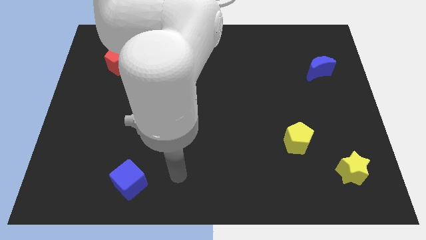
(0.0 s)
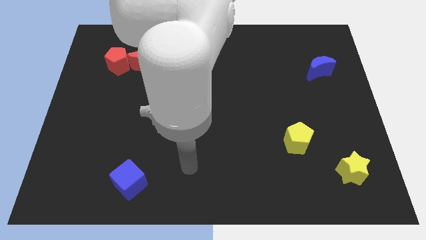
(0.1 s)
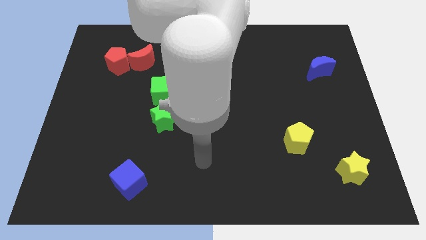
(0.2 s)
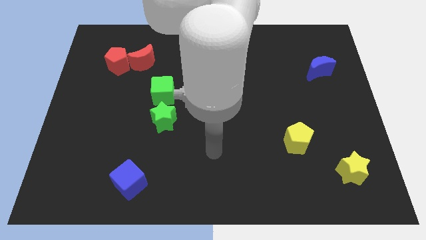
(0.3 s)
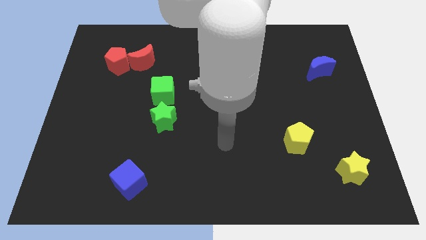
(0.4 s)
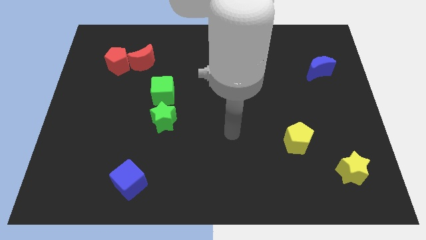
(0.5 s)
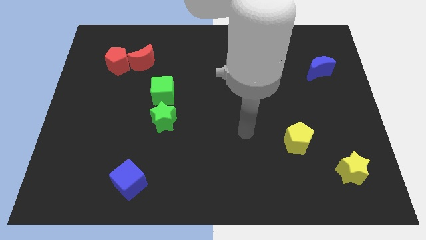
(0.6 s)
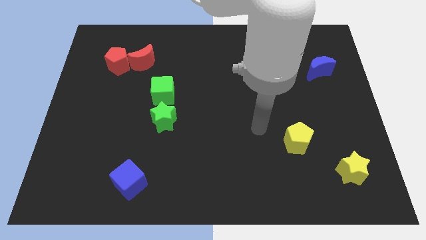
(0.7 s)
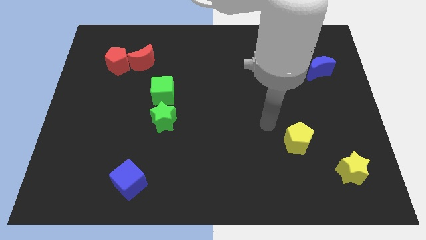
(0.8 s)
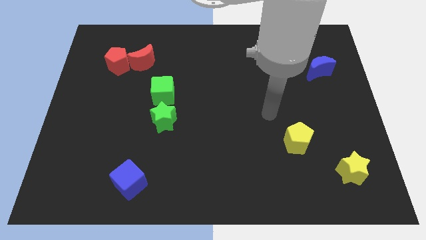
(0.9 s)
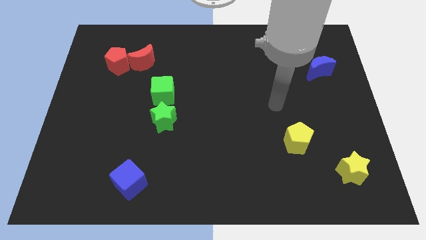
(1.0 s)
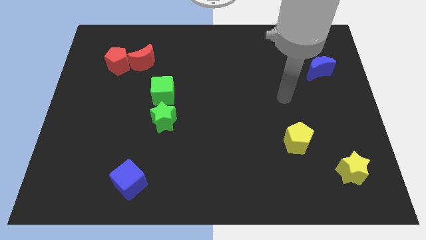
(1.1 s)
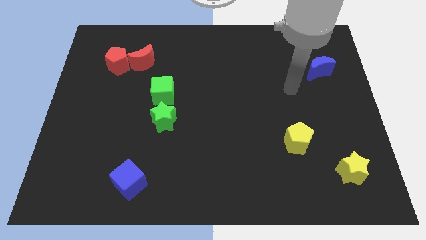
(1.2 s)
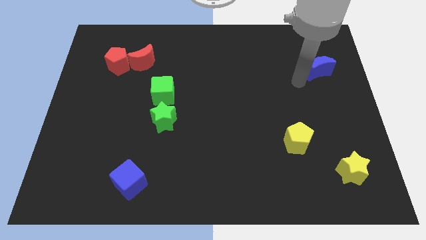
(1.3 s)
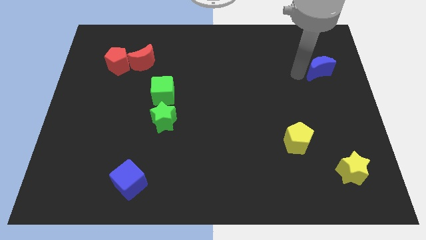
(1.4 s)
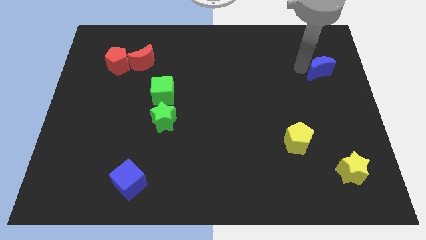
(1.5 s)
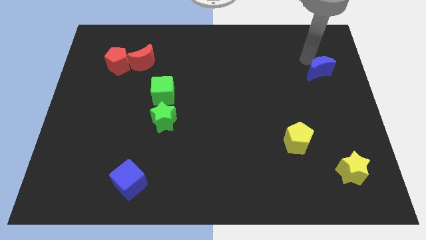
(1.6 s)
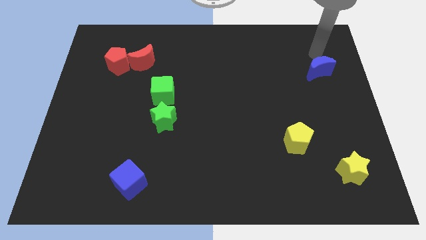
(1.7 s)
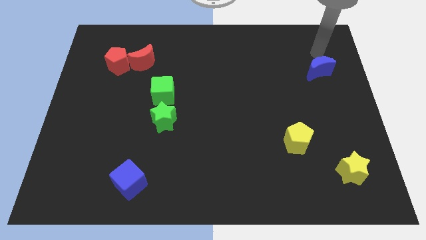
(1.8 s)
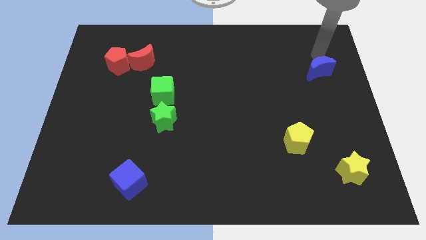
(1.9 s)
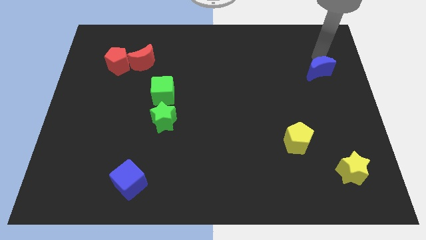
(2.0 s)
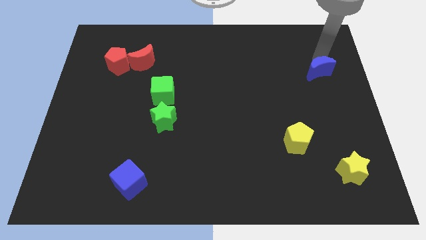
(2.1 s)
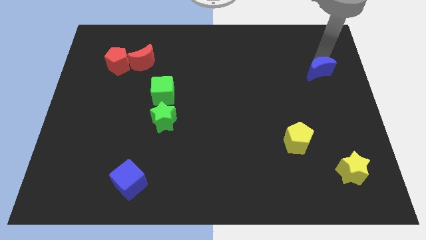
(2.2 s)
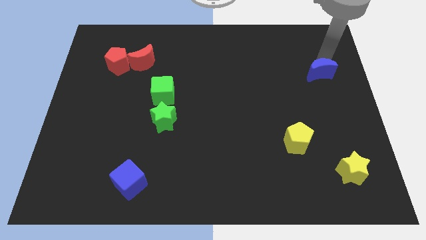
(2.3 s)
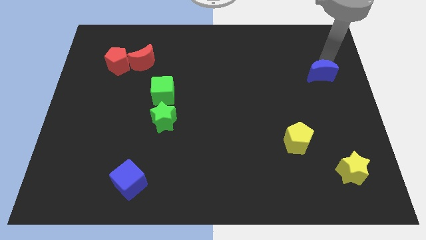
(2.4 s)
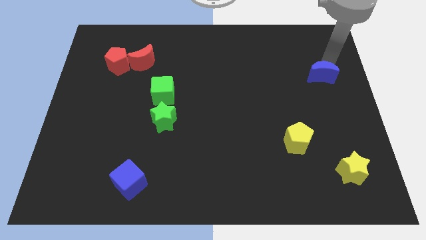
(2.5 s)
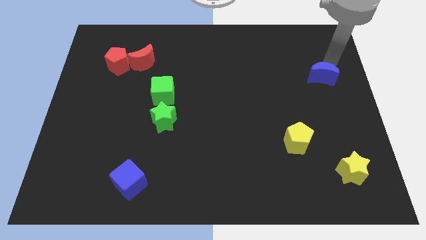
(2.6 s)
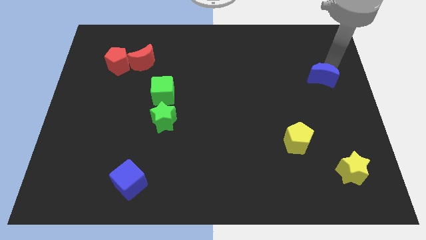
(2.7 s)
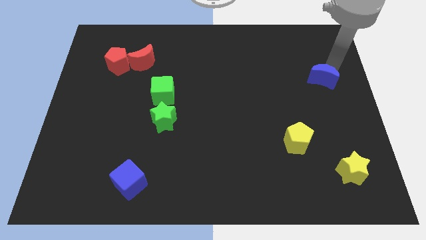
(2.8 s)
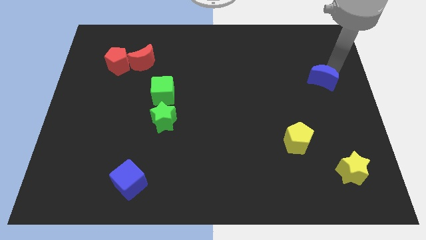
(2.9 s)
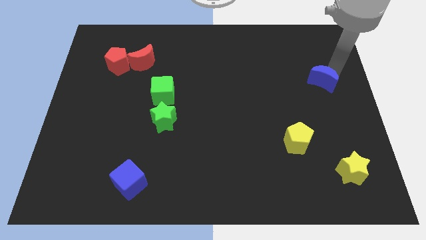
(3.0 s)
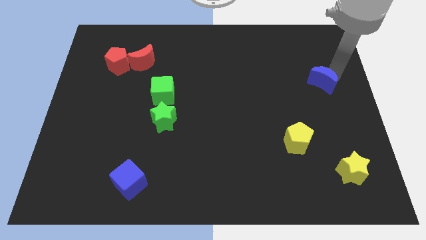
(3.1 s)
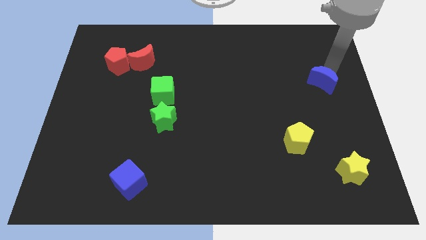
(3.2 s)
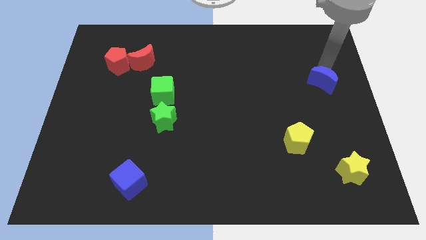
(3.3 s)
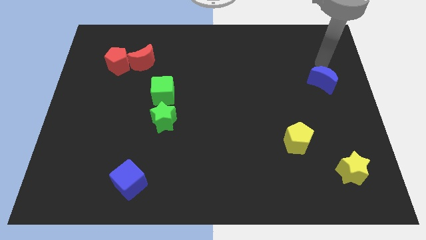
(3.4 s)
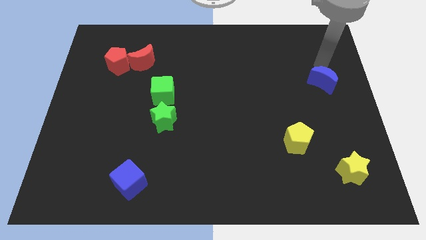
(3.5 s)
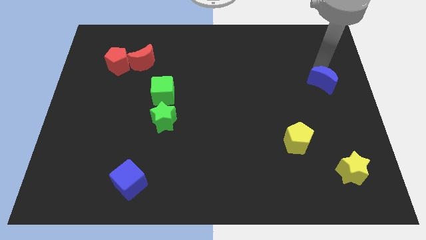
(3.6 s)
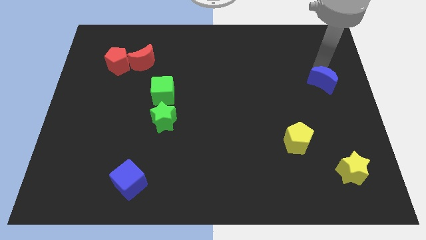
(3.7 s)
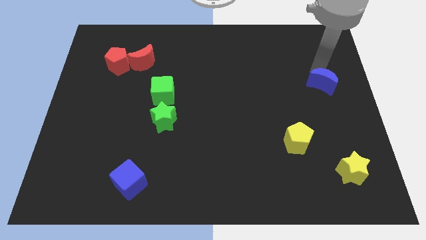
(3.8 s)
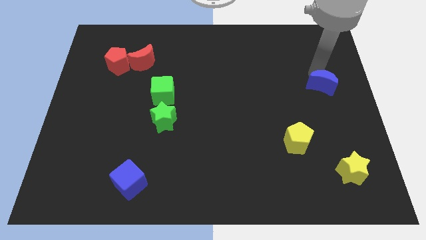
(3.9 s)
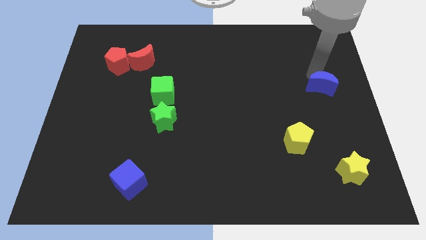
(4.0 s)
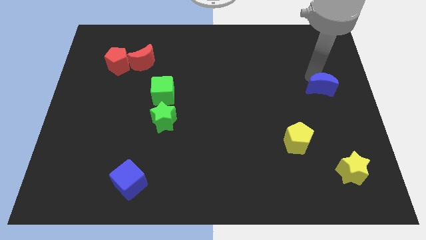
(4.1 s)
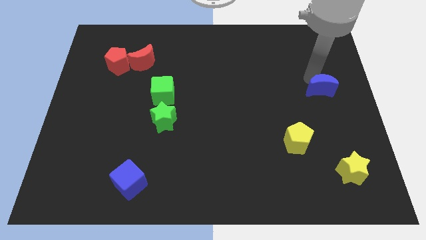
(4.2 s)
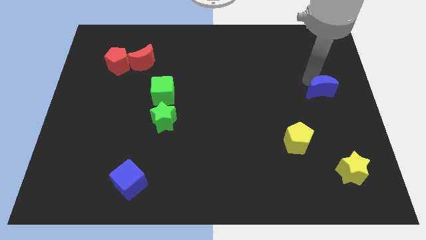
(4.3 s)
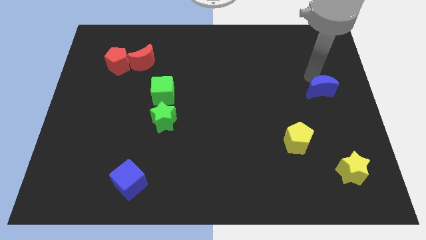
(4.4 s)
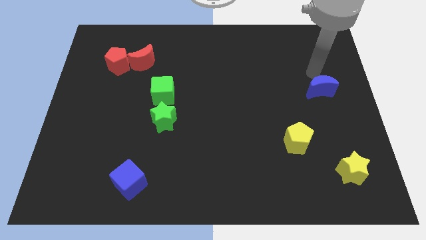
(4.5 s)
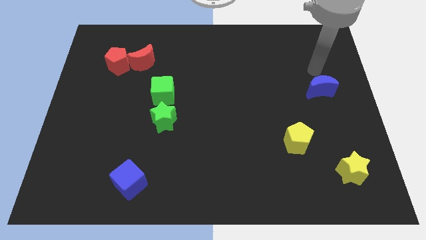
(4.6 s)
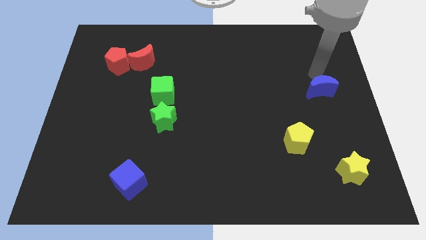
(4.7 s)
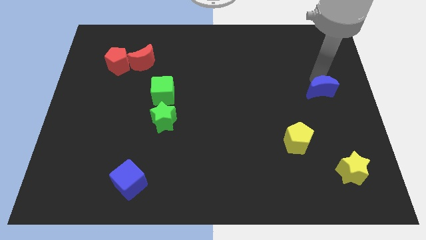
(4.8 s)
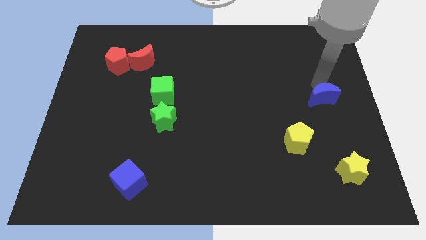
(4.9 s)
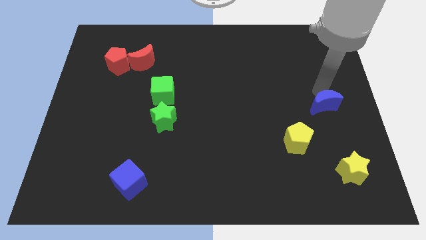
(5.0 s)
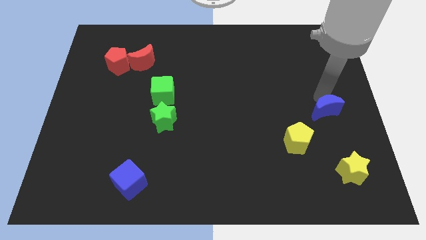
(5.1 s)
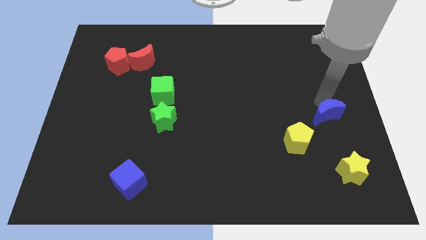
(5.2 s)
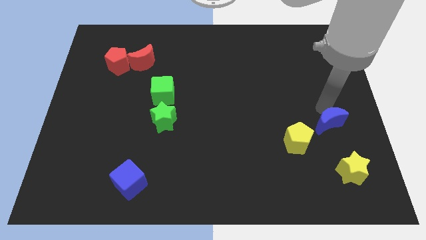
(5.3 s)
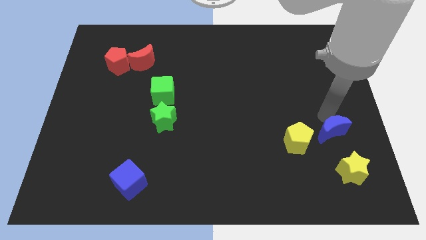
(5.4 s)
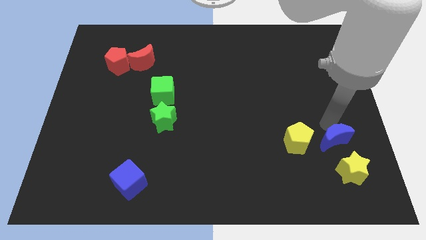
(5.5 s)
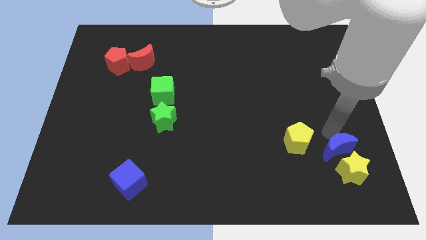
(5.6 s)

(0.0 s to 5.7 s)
slide the blue moon towards the yellow star

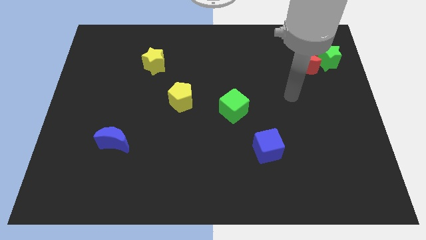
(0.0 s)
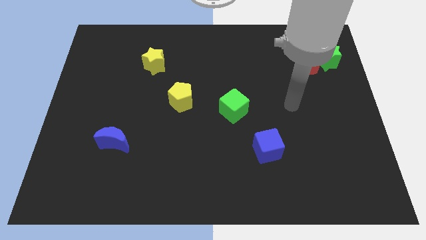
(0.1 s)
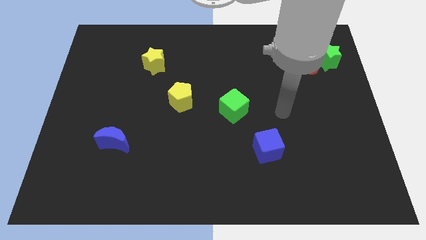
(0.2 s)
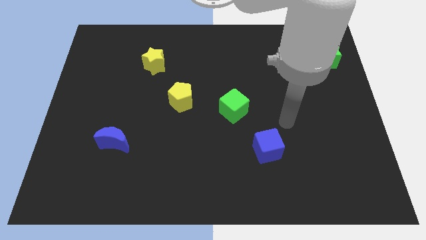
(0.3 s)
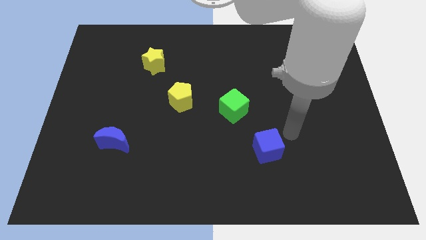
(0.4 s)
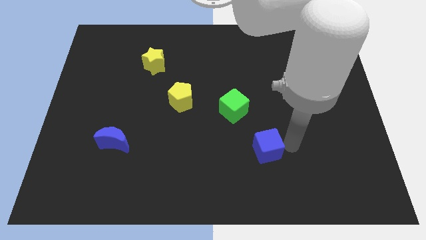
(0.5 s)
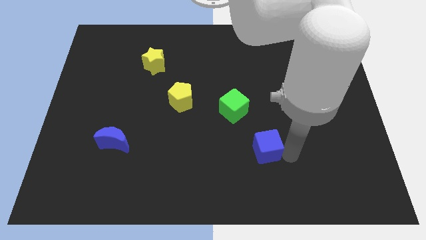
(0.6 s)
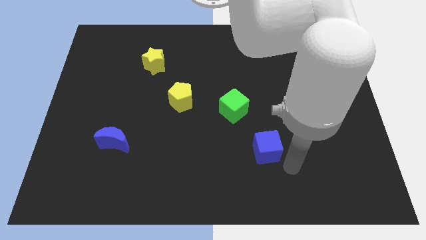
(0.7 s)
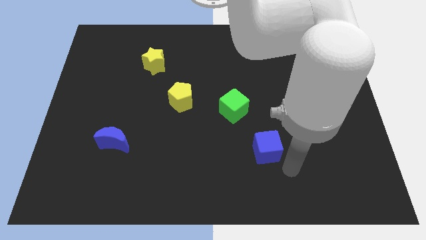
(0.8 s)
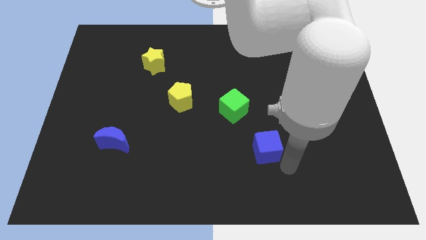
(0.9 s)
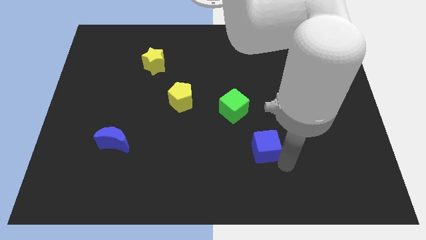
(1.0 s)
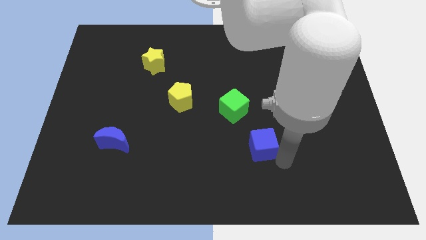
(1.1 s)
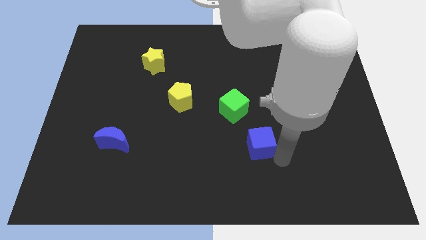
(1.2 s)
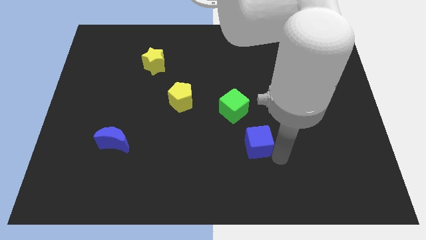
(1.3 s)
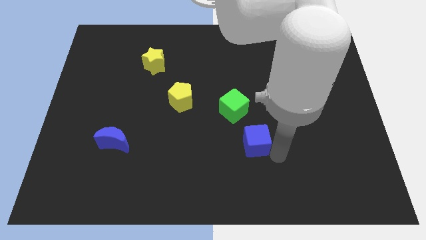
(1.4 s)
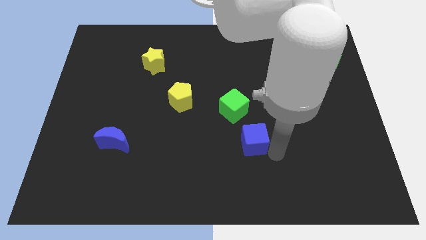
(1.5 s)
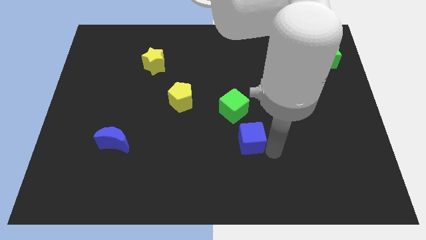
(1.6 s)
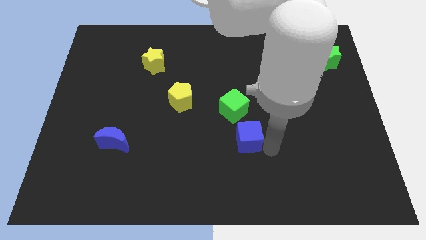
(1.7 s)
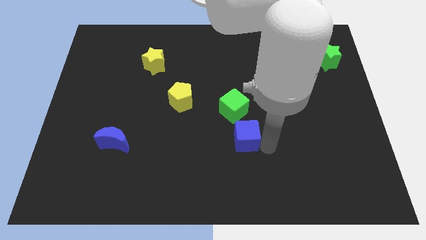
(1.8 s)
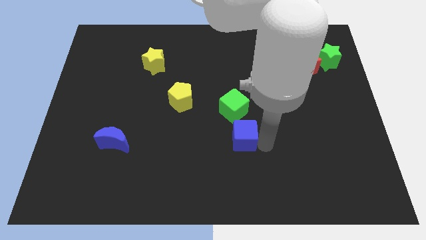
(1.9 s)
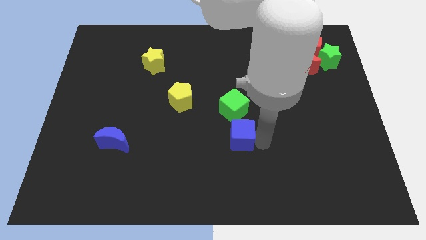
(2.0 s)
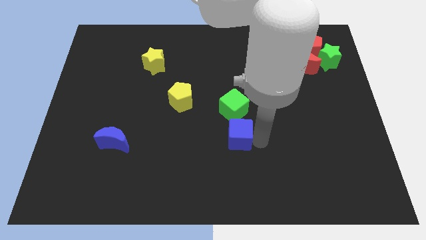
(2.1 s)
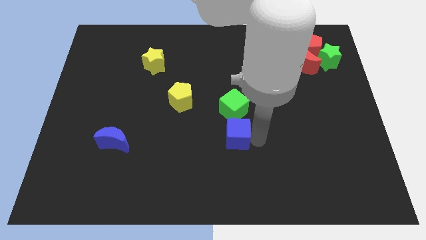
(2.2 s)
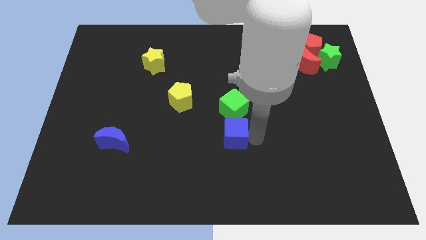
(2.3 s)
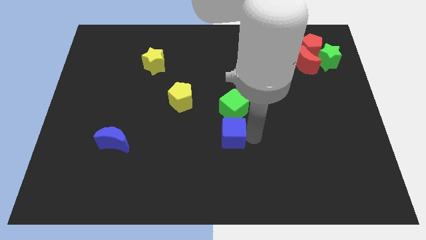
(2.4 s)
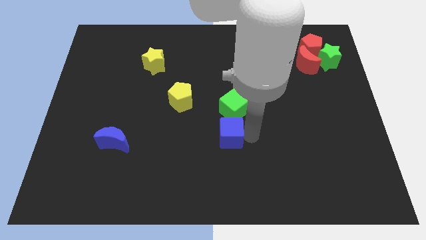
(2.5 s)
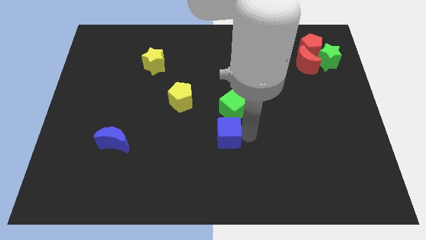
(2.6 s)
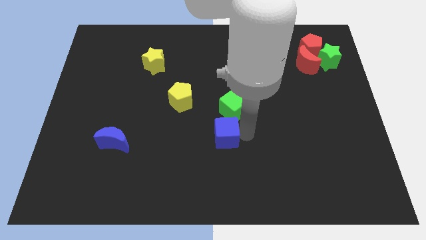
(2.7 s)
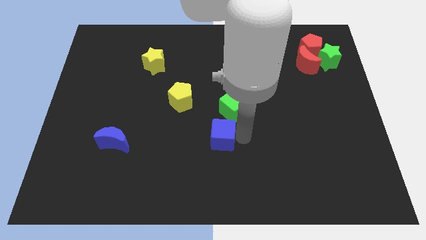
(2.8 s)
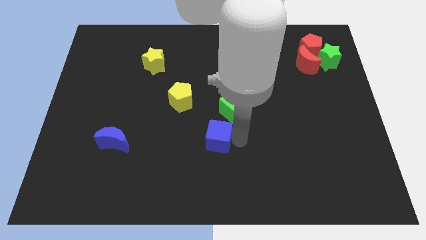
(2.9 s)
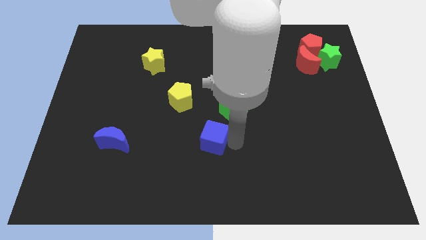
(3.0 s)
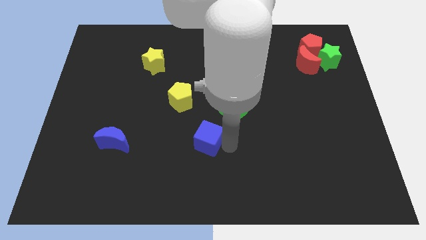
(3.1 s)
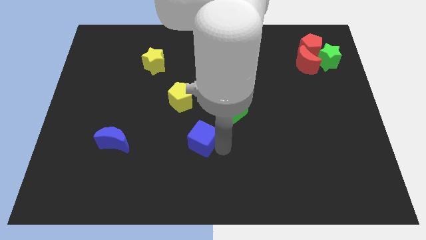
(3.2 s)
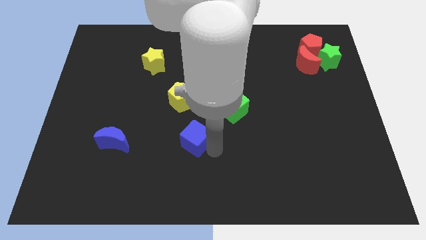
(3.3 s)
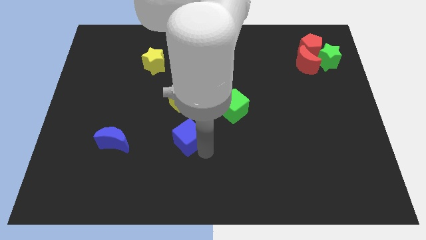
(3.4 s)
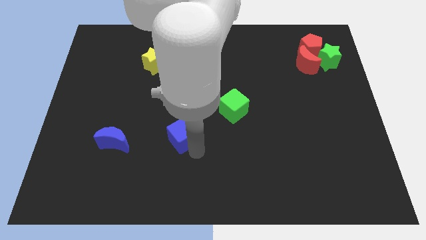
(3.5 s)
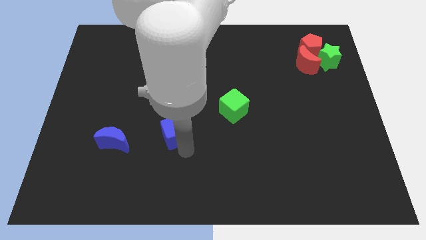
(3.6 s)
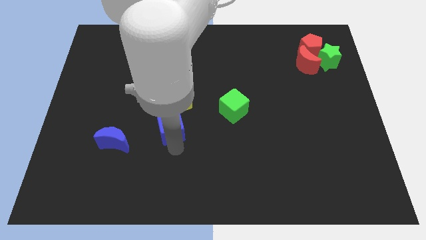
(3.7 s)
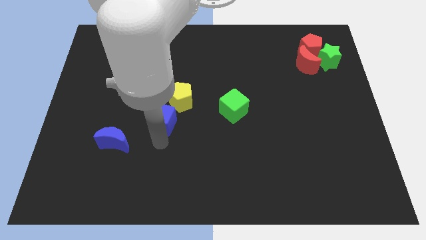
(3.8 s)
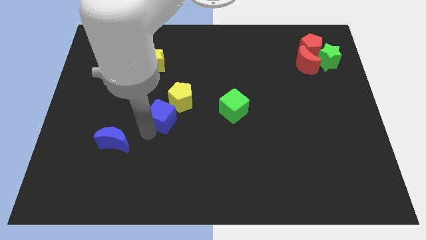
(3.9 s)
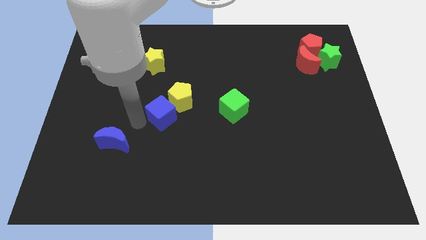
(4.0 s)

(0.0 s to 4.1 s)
move the blue cube close to the yellow pentagon
